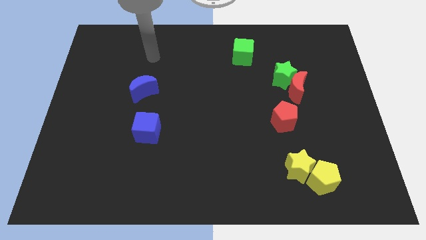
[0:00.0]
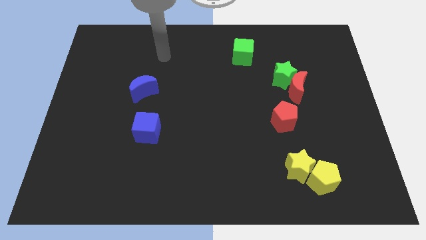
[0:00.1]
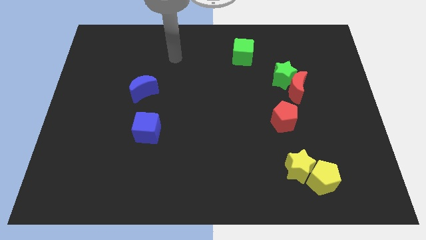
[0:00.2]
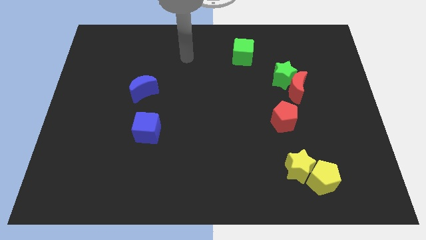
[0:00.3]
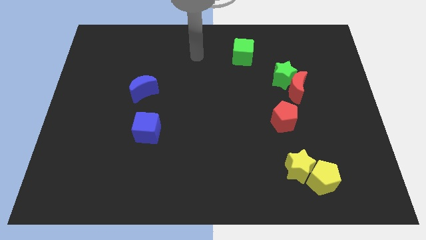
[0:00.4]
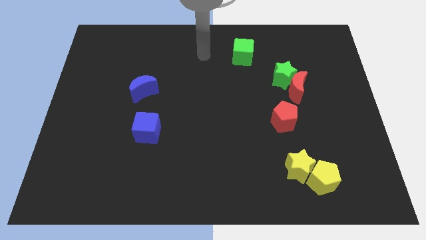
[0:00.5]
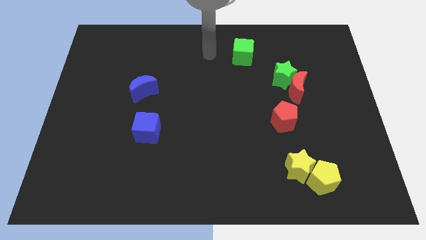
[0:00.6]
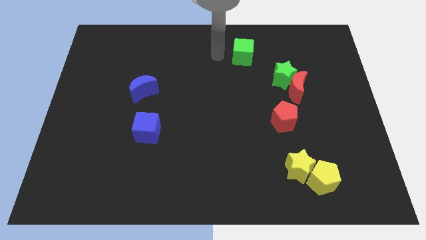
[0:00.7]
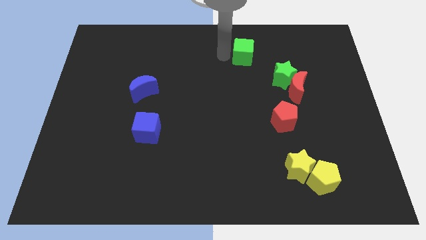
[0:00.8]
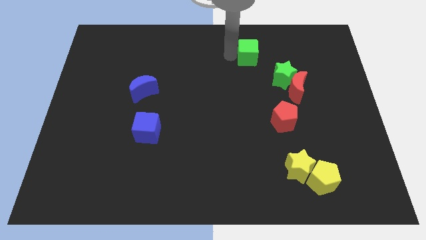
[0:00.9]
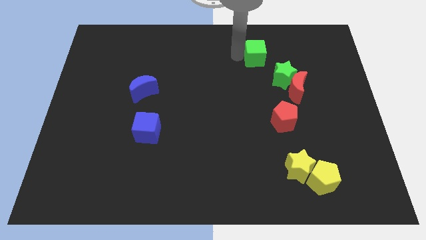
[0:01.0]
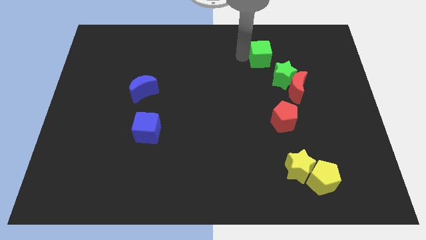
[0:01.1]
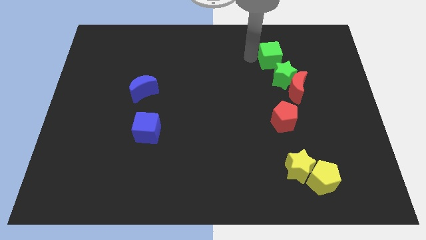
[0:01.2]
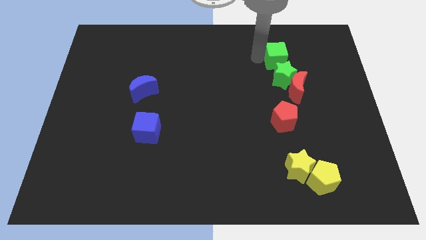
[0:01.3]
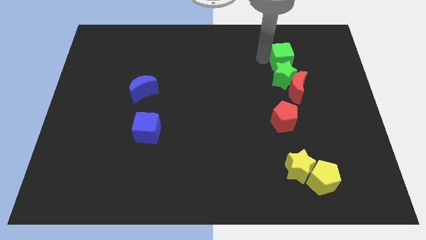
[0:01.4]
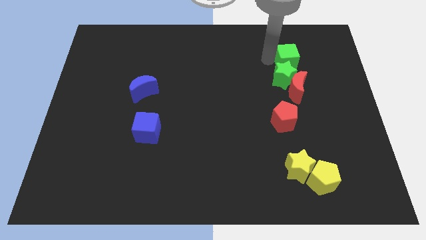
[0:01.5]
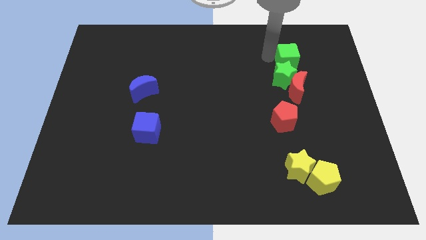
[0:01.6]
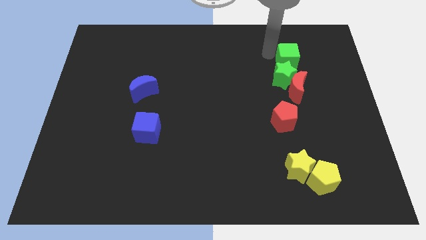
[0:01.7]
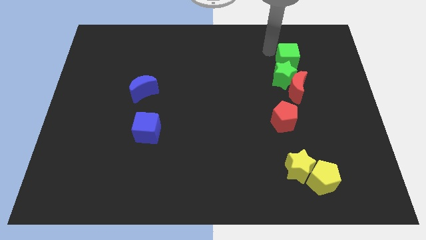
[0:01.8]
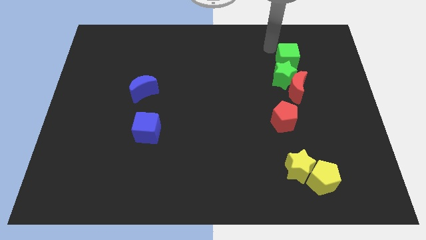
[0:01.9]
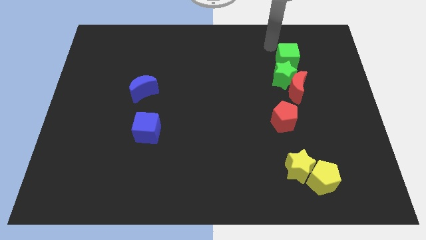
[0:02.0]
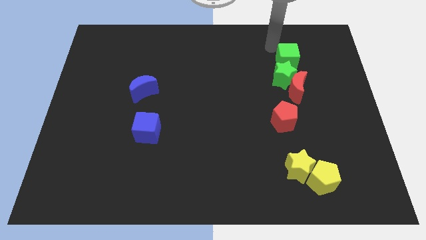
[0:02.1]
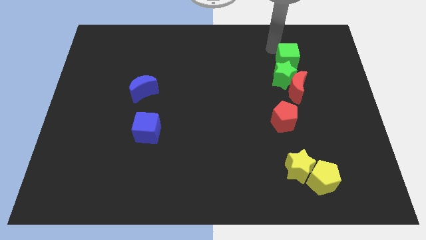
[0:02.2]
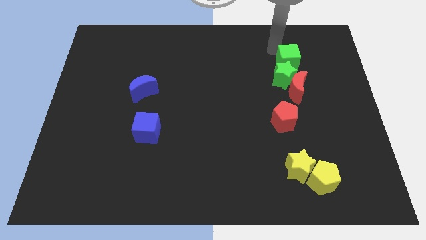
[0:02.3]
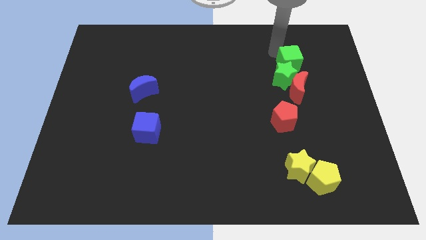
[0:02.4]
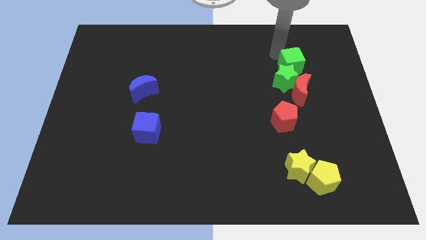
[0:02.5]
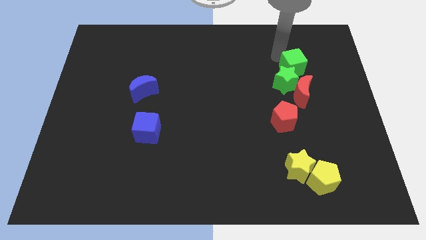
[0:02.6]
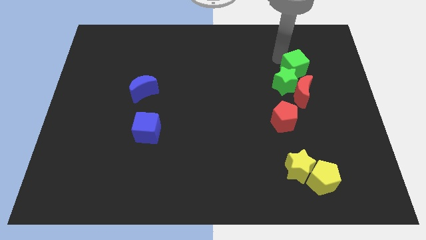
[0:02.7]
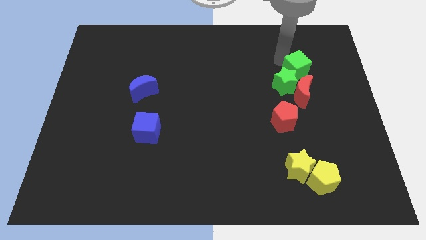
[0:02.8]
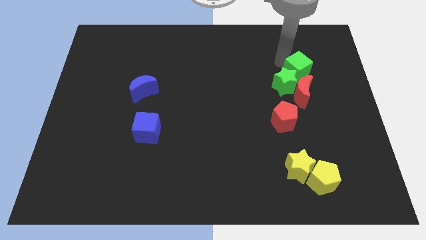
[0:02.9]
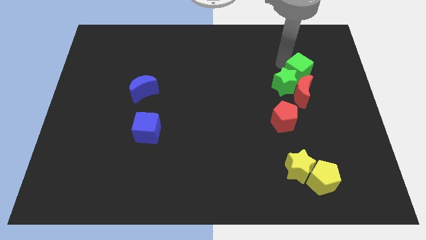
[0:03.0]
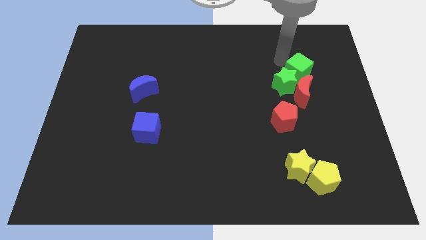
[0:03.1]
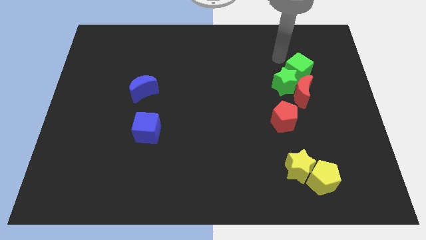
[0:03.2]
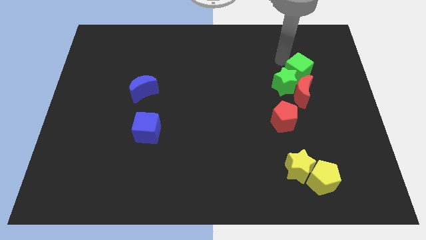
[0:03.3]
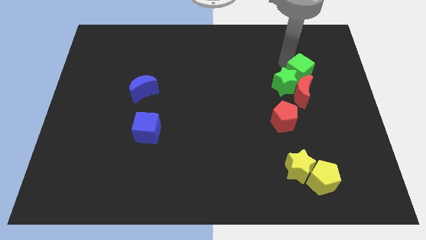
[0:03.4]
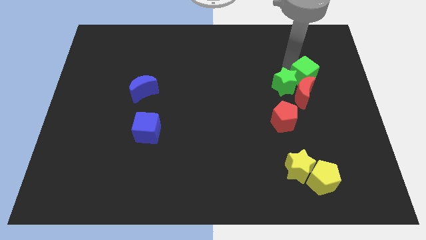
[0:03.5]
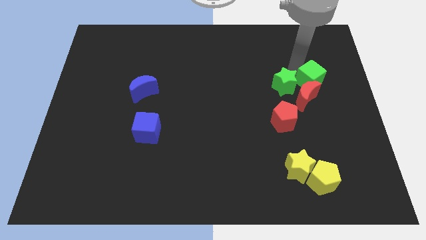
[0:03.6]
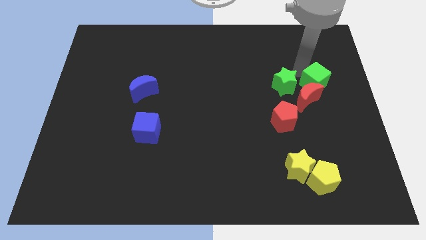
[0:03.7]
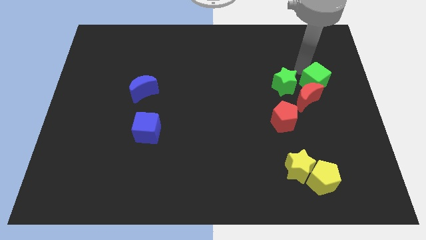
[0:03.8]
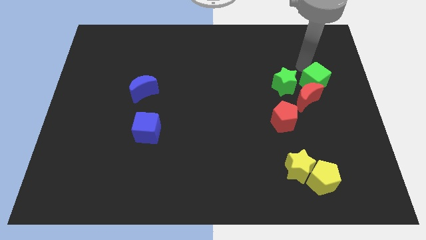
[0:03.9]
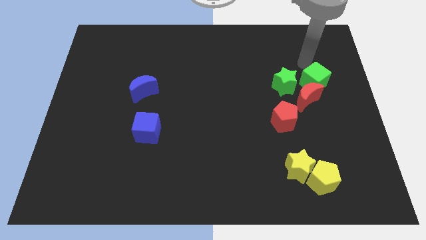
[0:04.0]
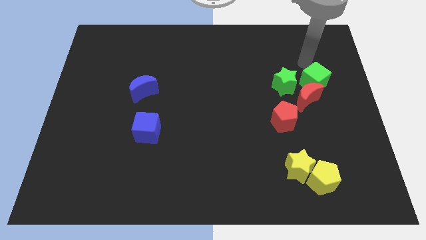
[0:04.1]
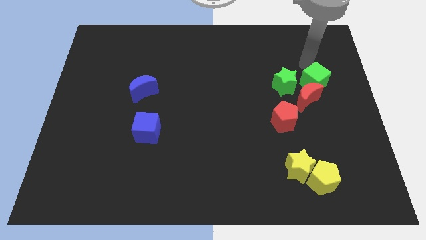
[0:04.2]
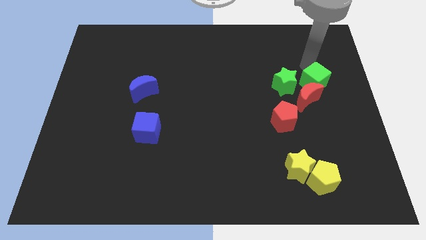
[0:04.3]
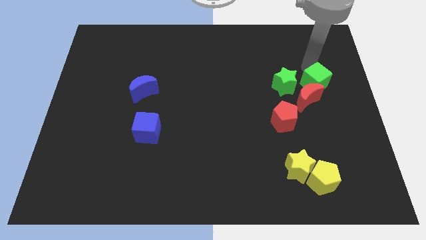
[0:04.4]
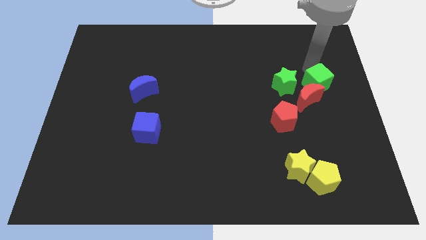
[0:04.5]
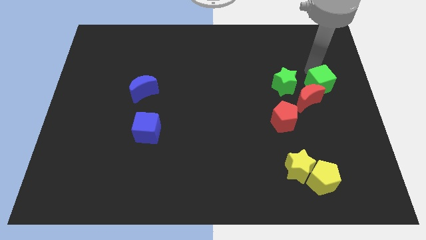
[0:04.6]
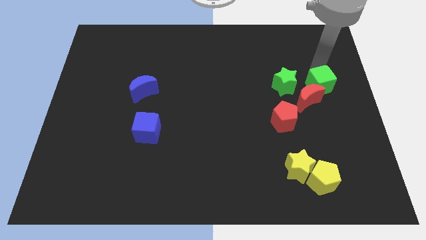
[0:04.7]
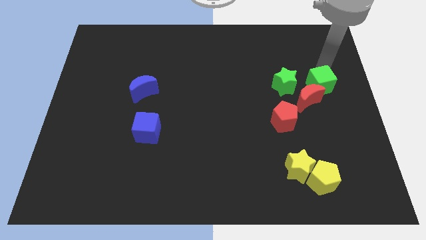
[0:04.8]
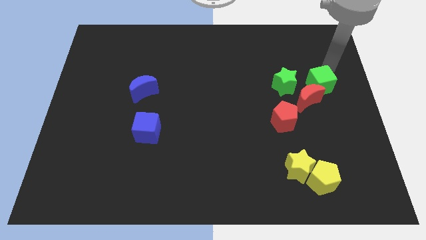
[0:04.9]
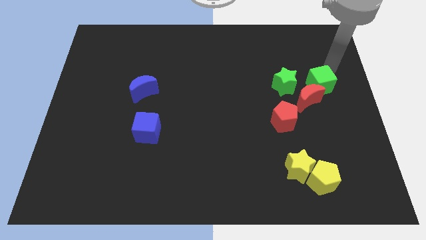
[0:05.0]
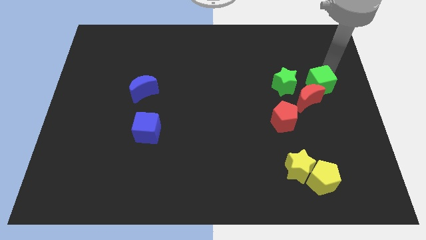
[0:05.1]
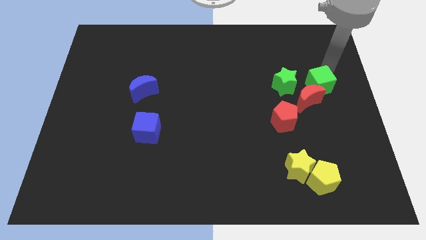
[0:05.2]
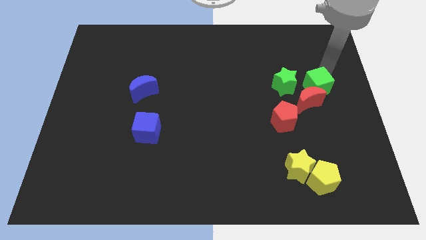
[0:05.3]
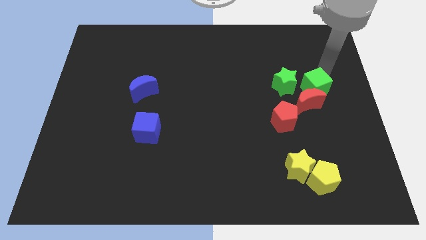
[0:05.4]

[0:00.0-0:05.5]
put the green cube diagonally down and to the right of the green star

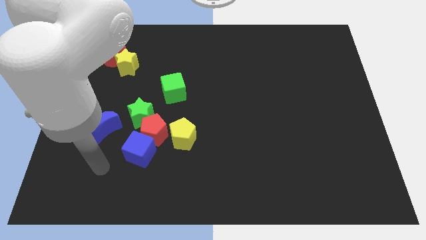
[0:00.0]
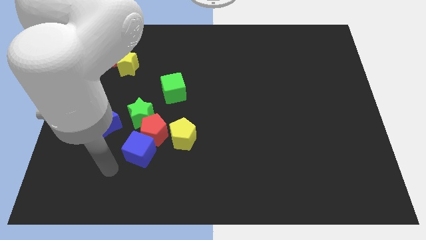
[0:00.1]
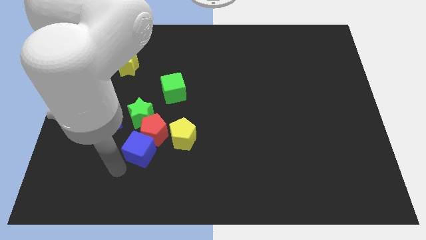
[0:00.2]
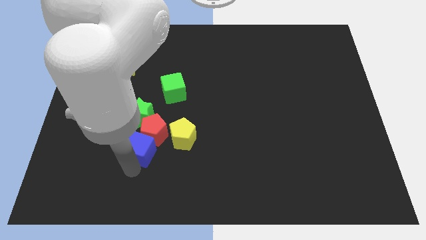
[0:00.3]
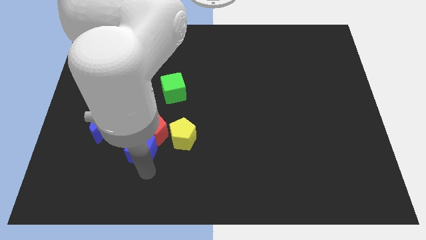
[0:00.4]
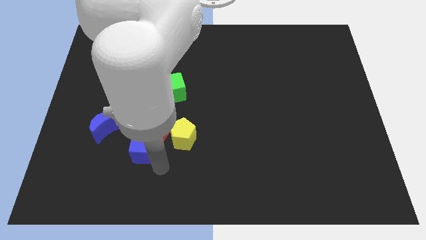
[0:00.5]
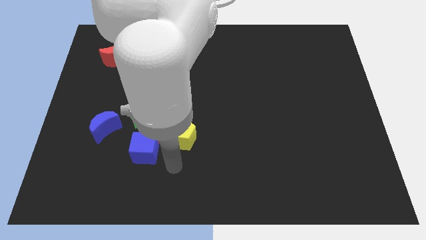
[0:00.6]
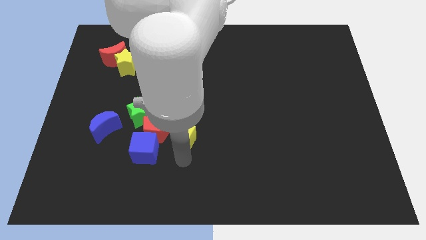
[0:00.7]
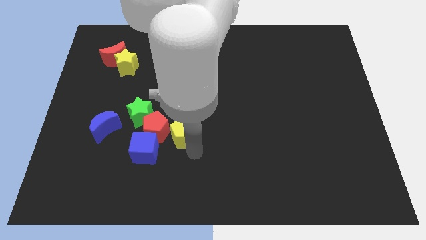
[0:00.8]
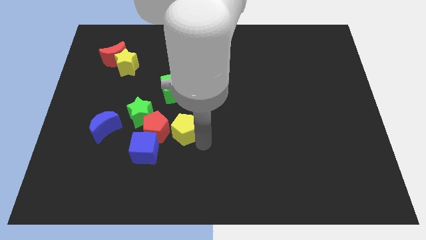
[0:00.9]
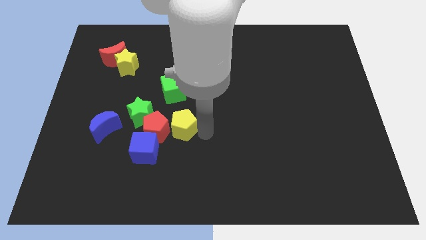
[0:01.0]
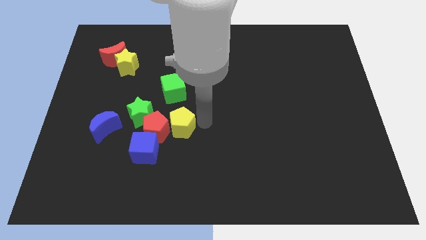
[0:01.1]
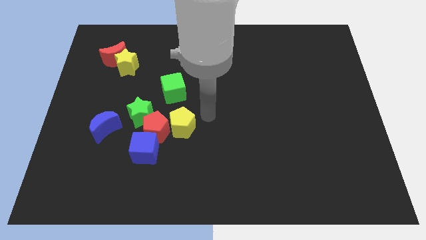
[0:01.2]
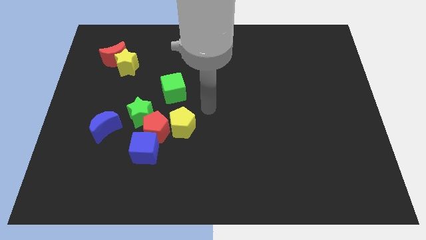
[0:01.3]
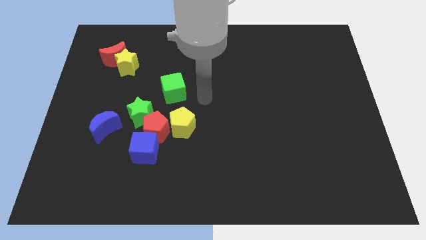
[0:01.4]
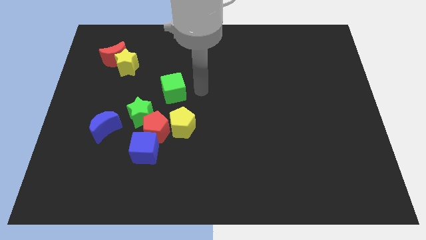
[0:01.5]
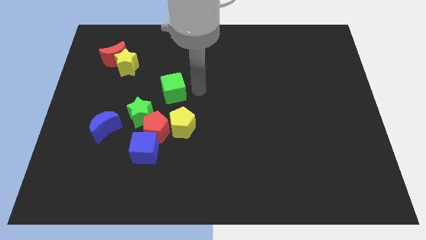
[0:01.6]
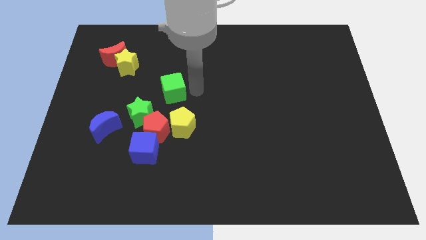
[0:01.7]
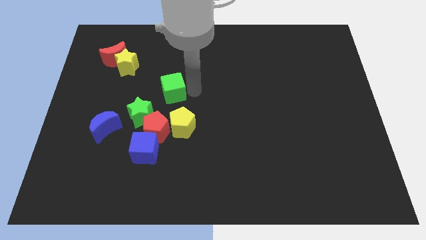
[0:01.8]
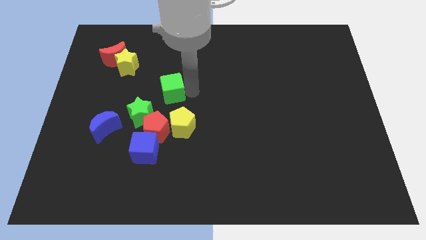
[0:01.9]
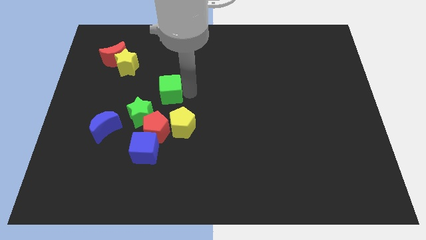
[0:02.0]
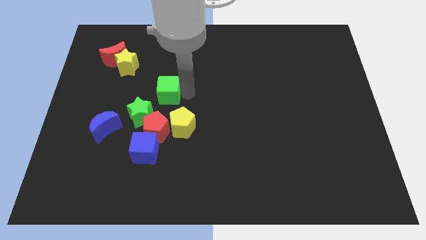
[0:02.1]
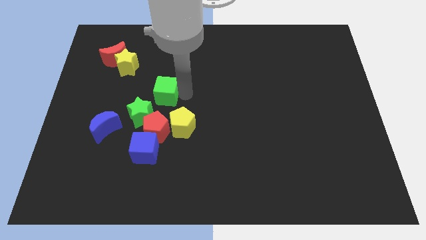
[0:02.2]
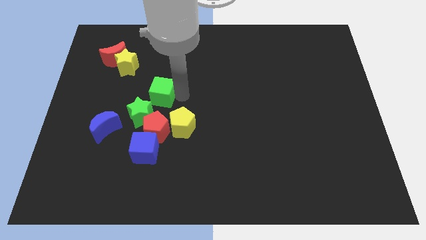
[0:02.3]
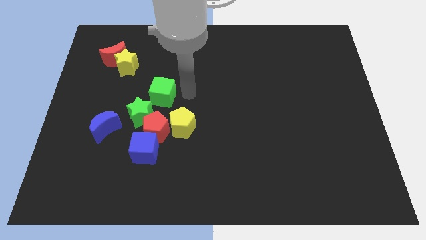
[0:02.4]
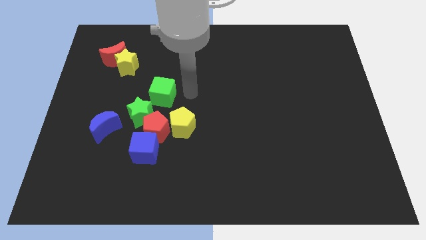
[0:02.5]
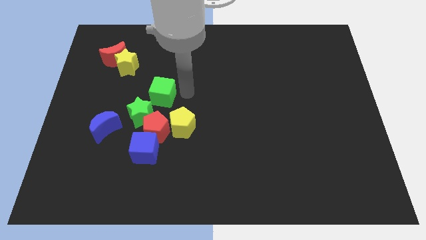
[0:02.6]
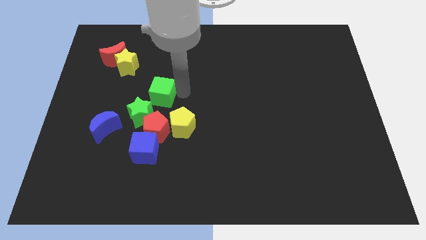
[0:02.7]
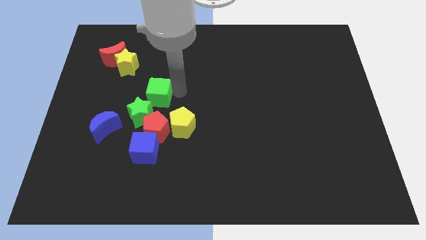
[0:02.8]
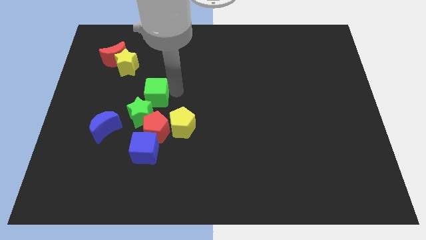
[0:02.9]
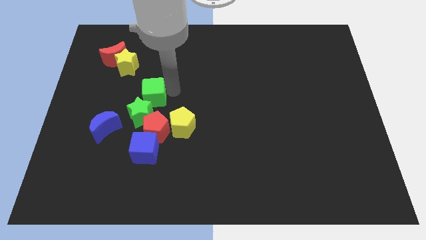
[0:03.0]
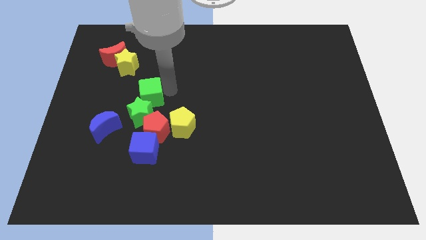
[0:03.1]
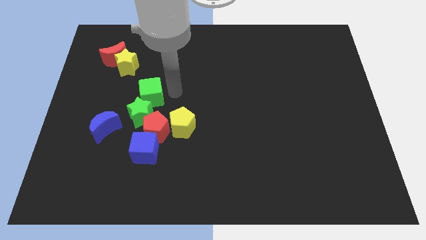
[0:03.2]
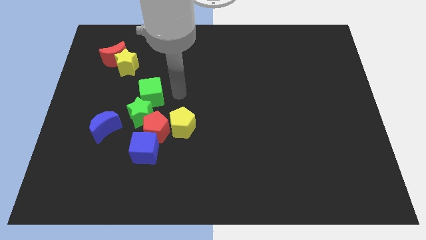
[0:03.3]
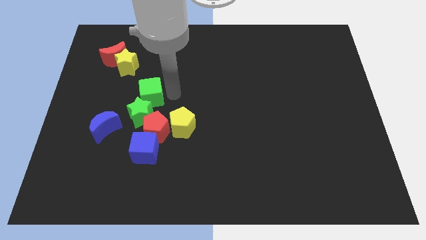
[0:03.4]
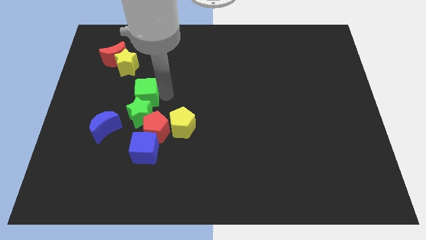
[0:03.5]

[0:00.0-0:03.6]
push the green cube to the top right side of the blue moon
